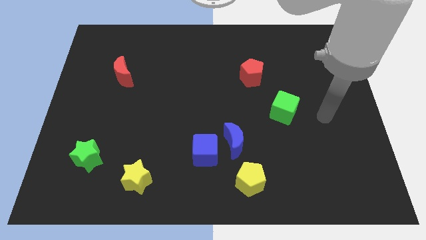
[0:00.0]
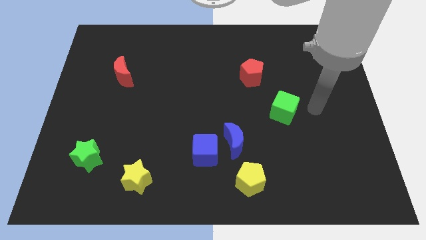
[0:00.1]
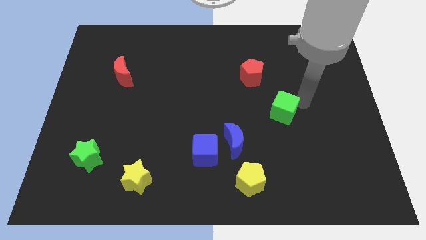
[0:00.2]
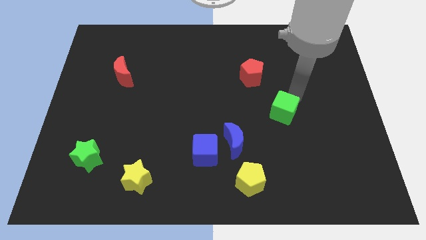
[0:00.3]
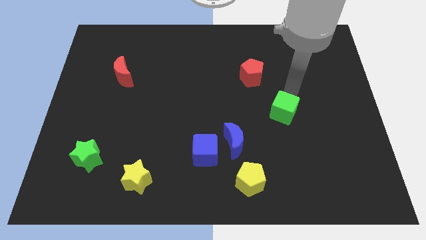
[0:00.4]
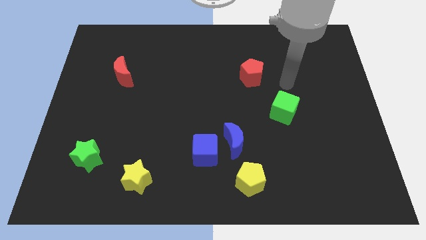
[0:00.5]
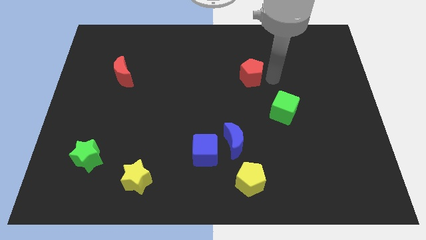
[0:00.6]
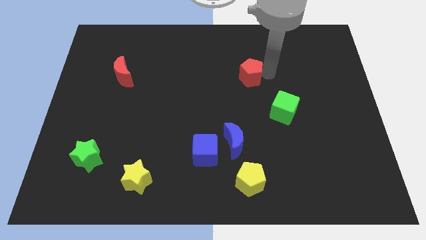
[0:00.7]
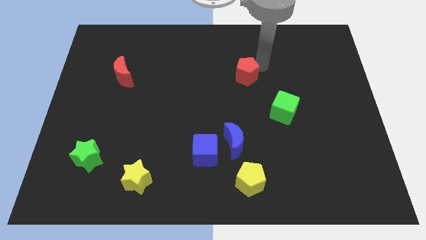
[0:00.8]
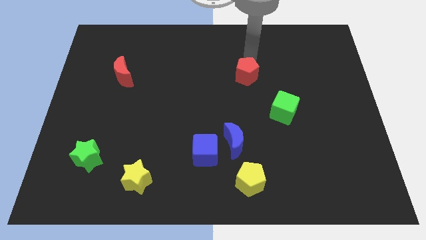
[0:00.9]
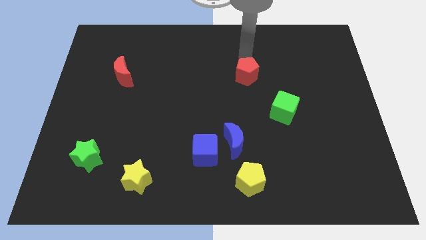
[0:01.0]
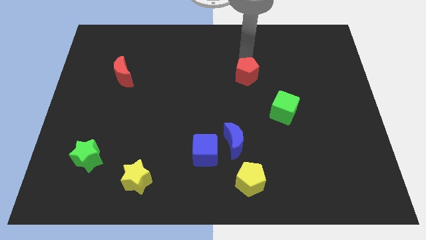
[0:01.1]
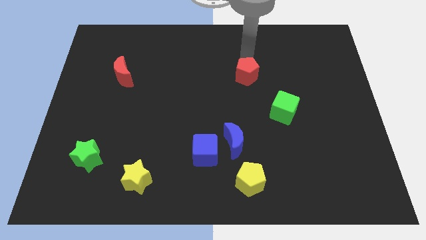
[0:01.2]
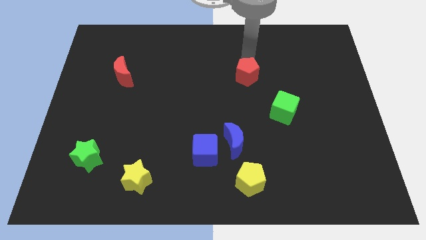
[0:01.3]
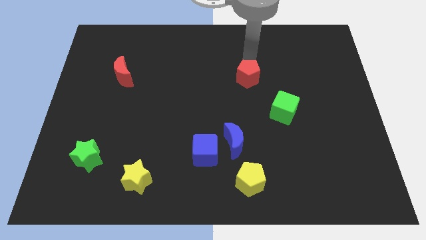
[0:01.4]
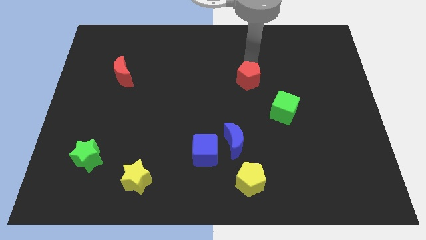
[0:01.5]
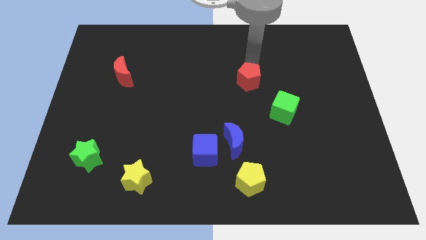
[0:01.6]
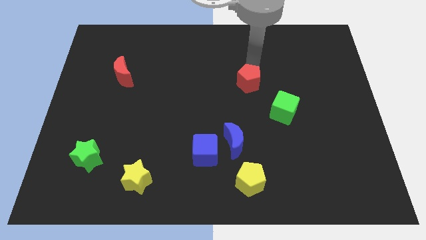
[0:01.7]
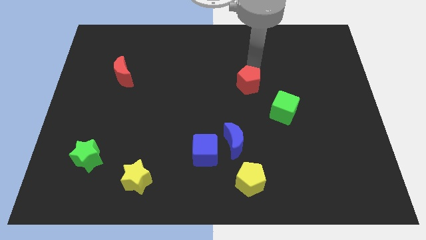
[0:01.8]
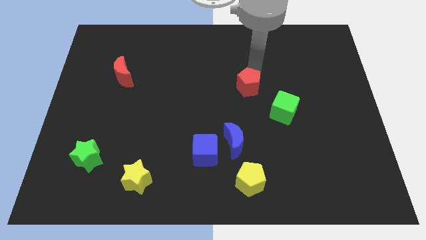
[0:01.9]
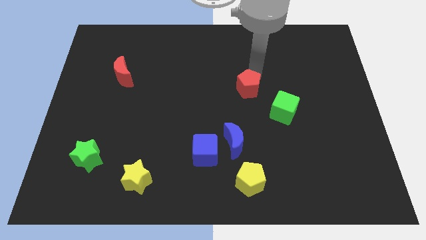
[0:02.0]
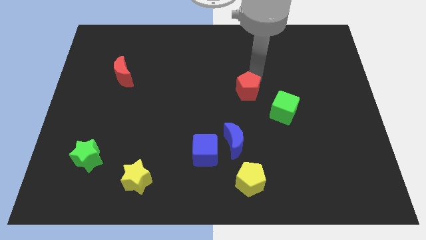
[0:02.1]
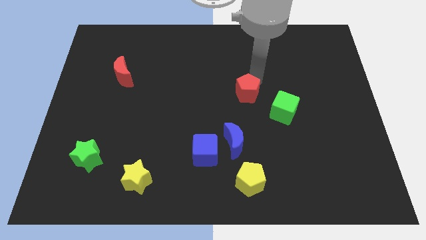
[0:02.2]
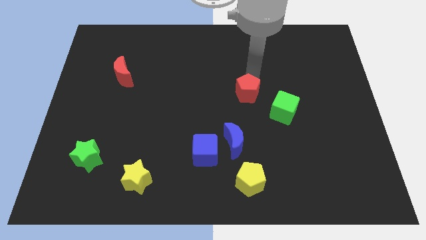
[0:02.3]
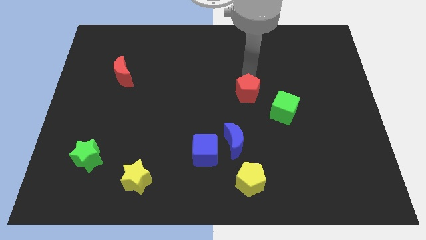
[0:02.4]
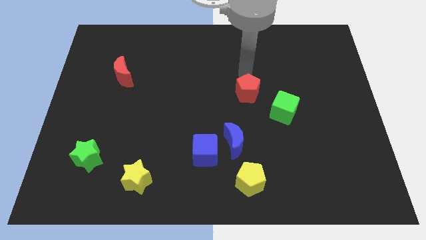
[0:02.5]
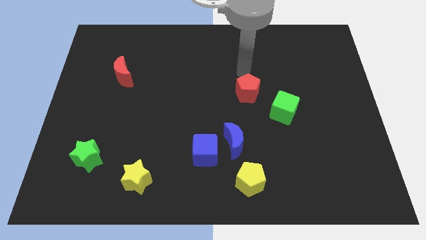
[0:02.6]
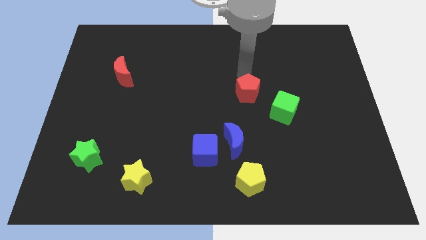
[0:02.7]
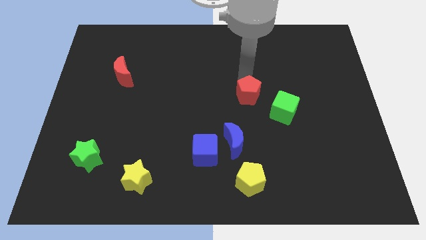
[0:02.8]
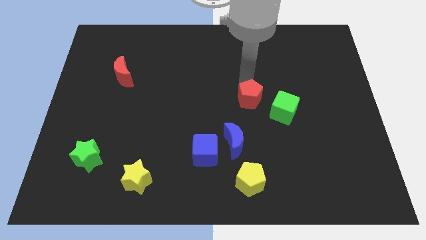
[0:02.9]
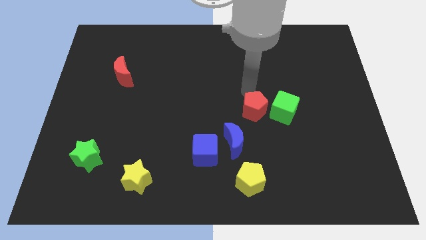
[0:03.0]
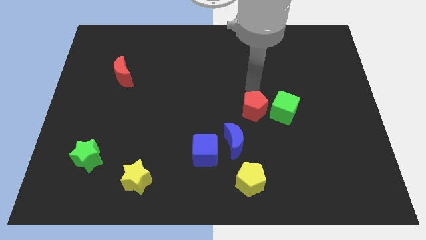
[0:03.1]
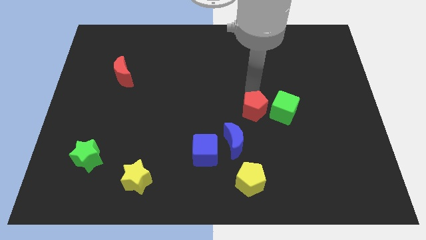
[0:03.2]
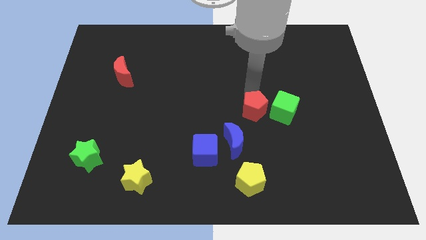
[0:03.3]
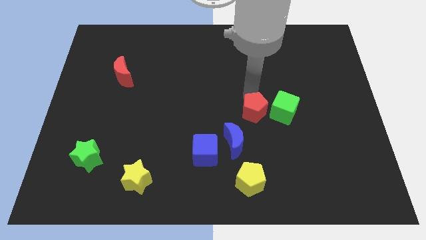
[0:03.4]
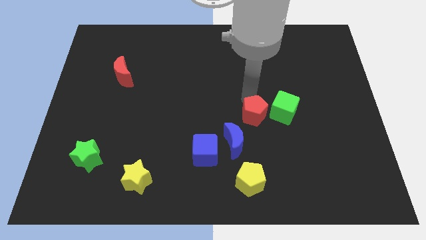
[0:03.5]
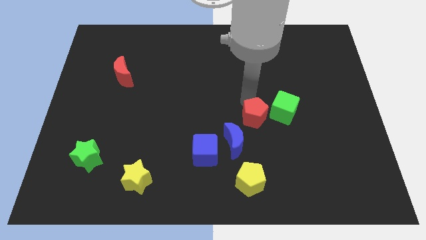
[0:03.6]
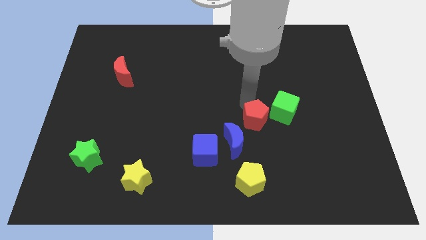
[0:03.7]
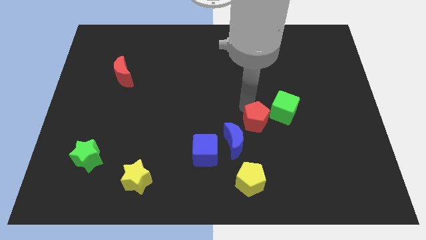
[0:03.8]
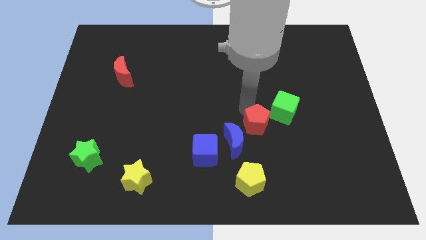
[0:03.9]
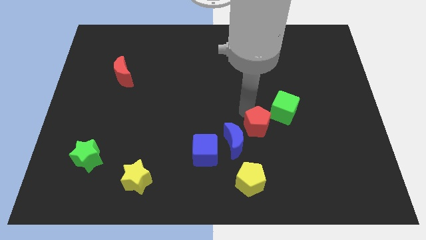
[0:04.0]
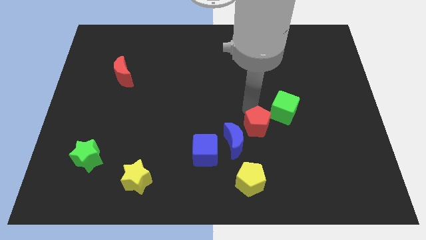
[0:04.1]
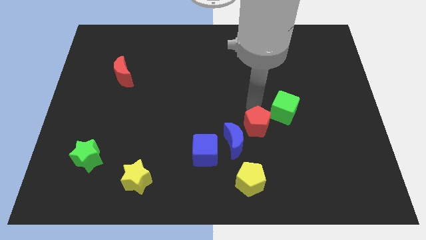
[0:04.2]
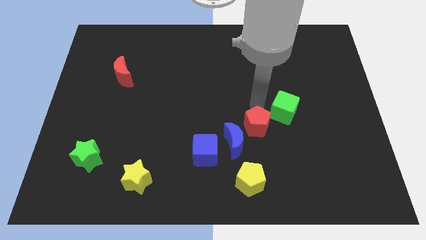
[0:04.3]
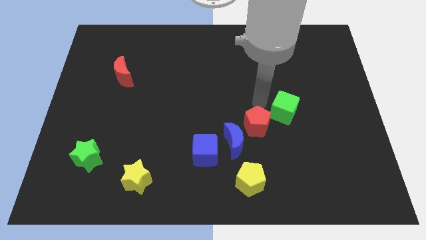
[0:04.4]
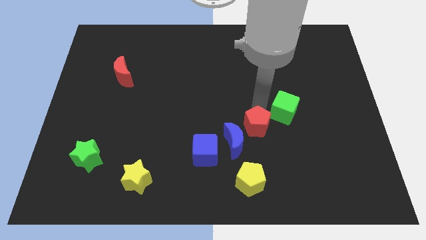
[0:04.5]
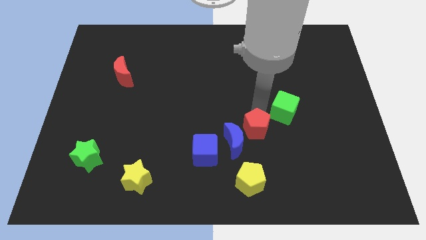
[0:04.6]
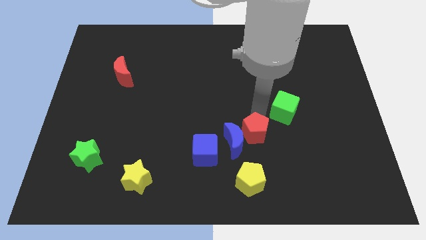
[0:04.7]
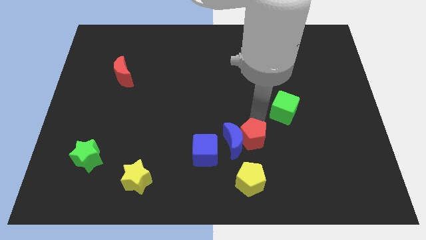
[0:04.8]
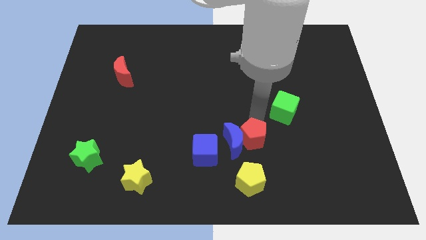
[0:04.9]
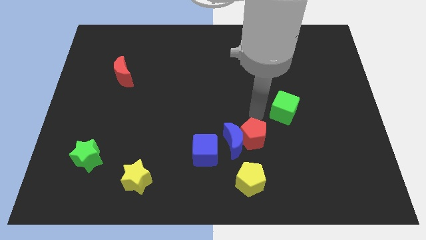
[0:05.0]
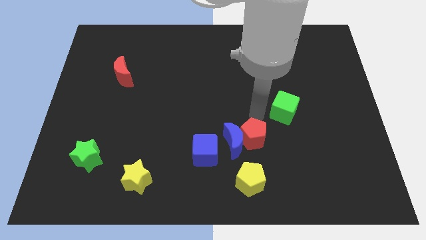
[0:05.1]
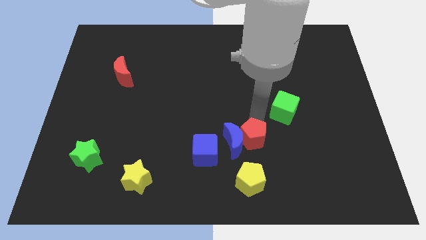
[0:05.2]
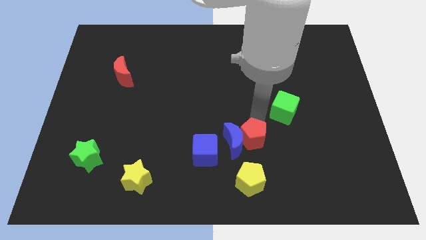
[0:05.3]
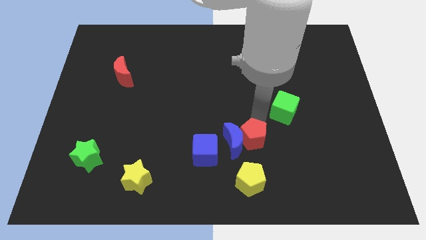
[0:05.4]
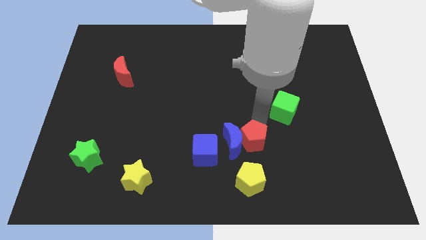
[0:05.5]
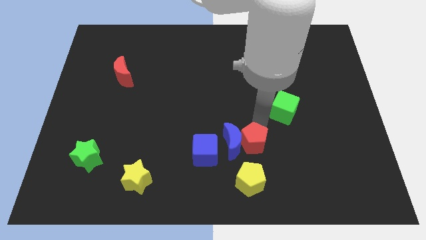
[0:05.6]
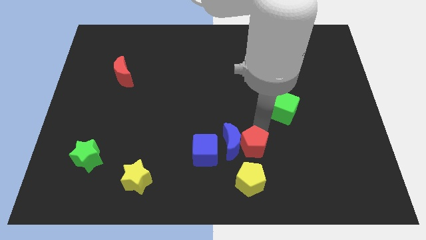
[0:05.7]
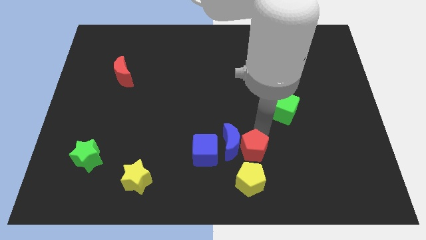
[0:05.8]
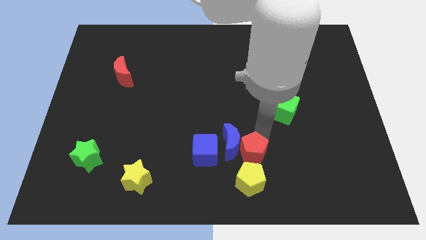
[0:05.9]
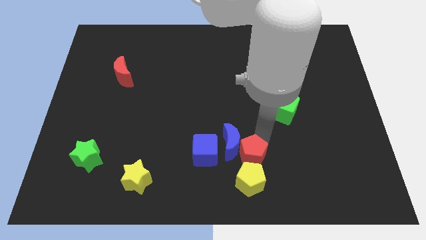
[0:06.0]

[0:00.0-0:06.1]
push the red pentagon close to the yellow pentagon

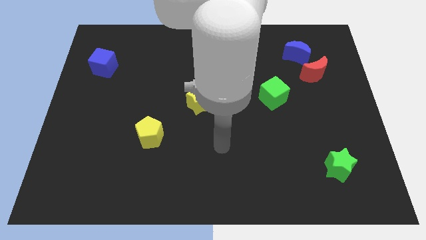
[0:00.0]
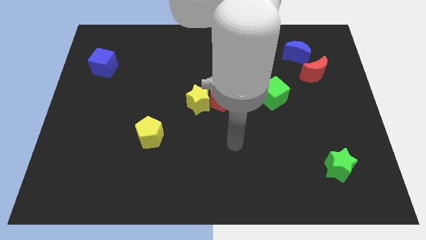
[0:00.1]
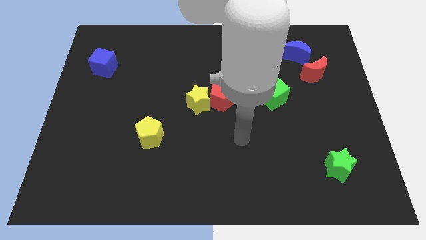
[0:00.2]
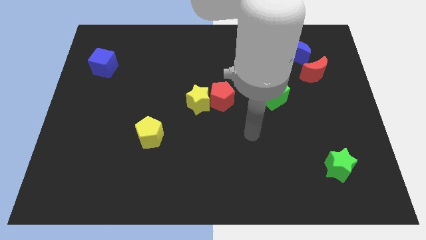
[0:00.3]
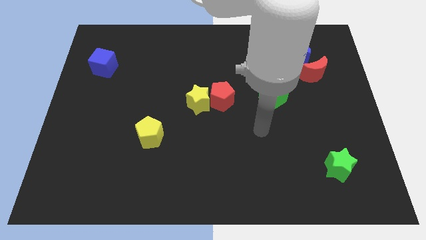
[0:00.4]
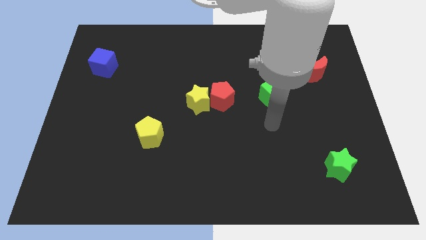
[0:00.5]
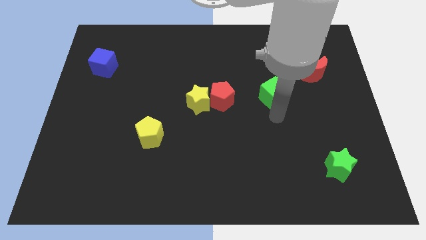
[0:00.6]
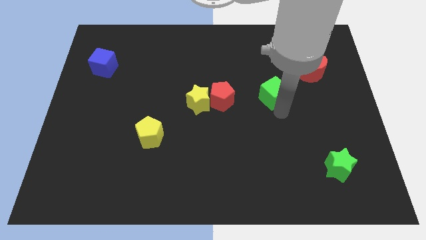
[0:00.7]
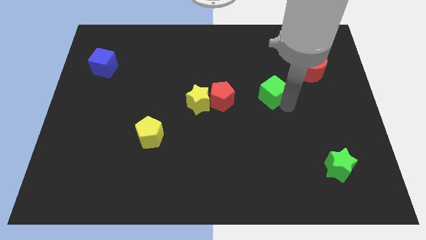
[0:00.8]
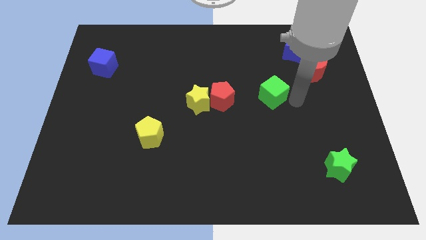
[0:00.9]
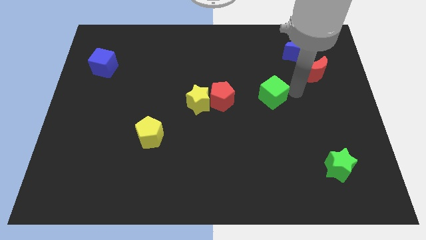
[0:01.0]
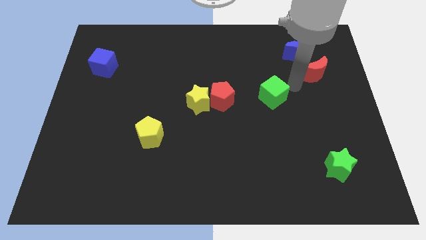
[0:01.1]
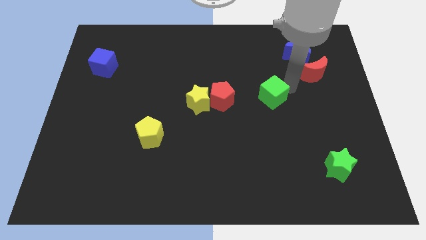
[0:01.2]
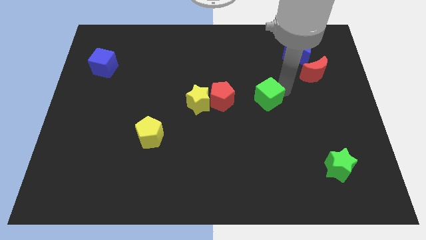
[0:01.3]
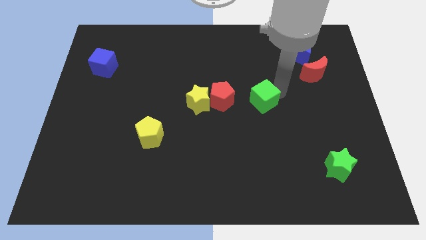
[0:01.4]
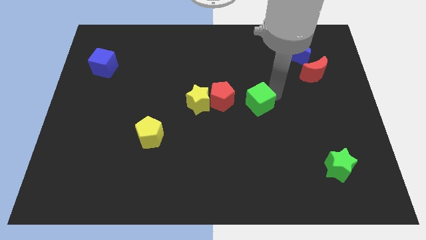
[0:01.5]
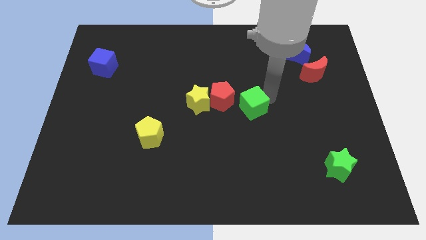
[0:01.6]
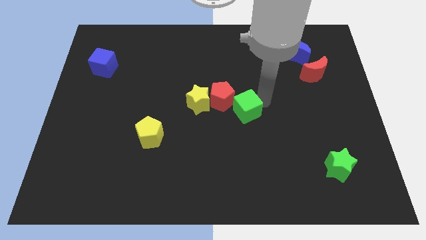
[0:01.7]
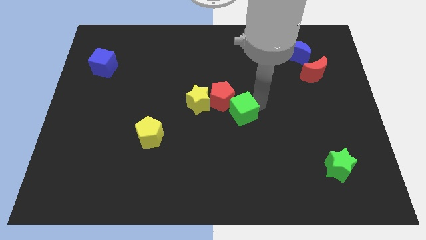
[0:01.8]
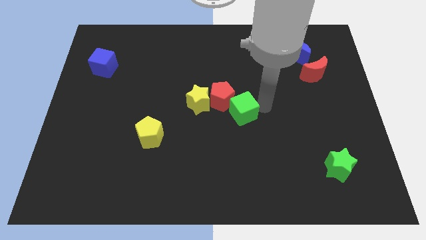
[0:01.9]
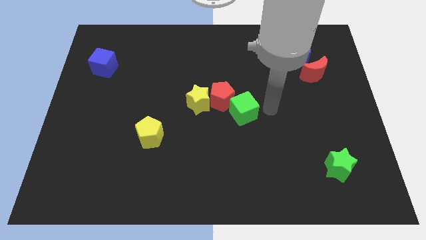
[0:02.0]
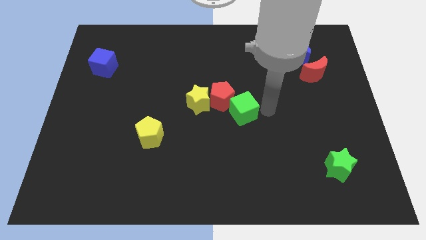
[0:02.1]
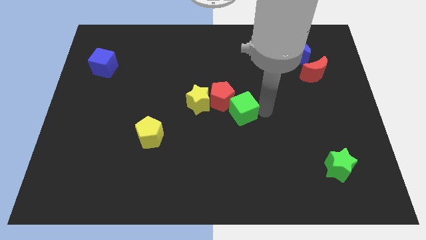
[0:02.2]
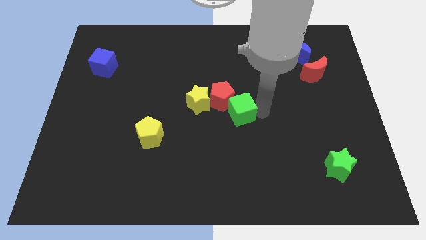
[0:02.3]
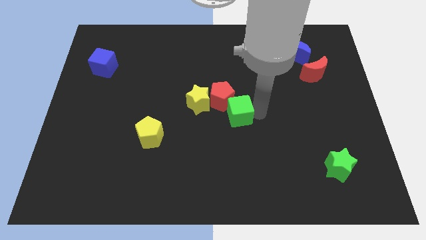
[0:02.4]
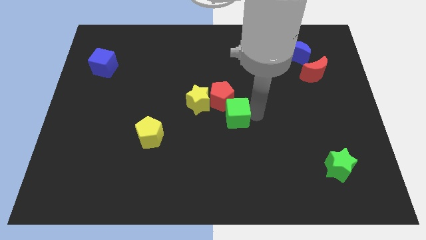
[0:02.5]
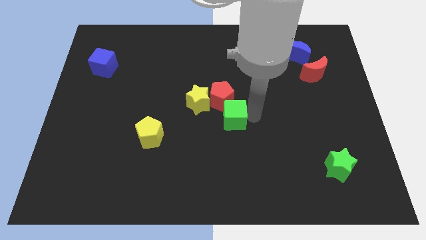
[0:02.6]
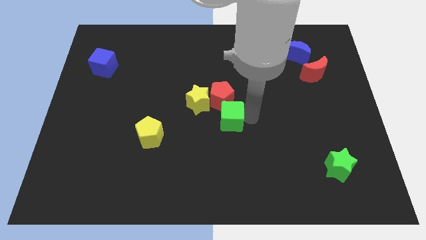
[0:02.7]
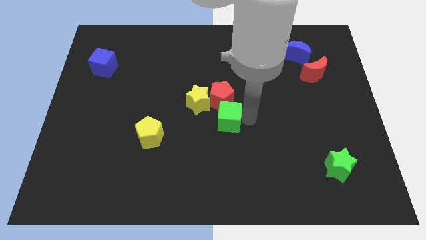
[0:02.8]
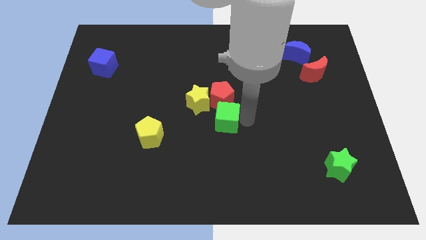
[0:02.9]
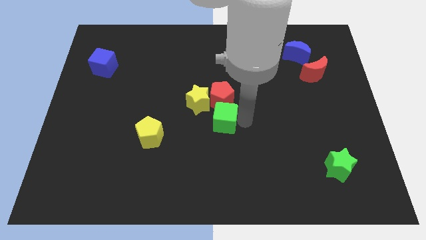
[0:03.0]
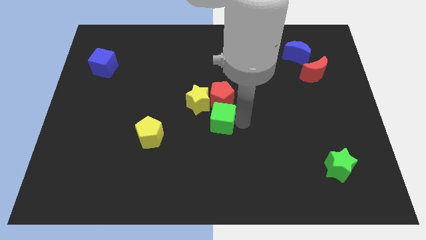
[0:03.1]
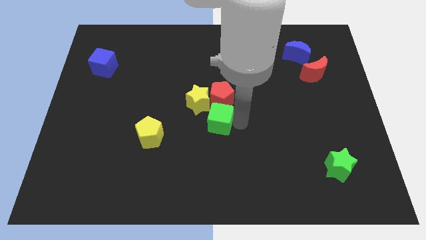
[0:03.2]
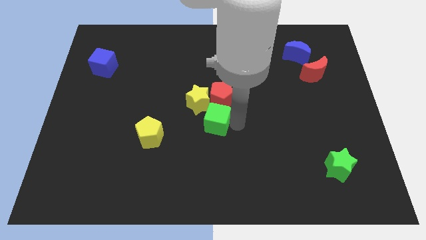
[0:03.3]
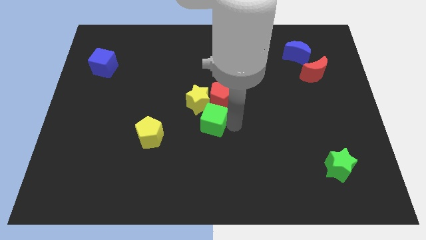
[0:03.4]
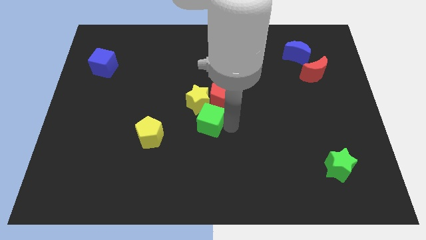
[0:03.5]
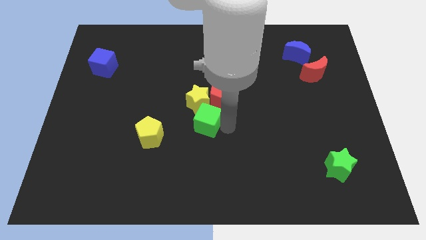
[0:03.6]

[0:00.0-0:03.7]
push the green cube next to the yellow star
